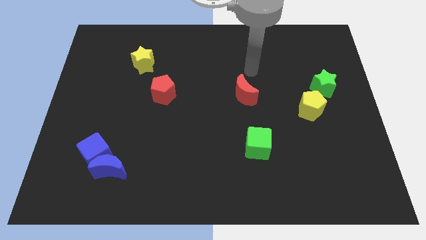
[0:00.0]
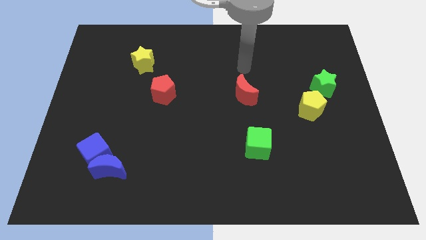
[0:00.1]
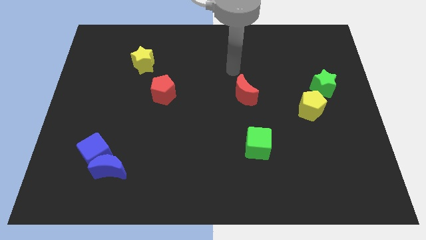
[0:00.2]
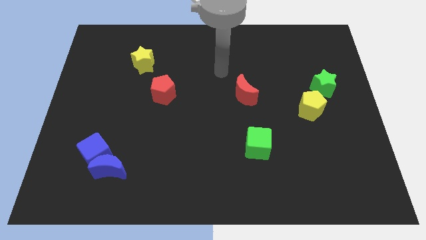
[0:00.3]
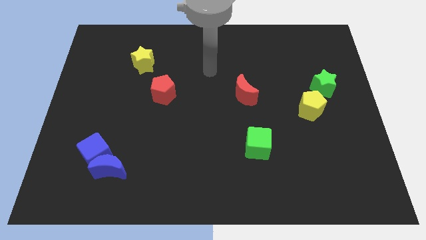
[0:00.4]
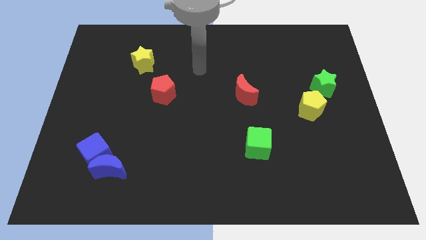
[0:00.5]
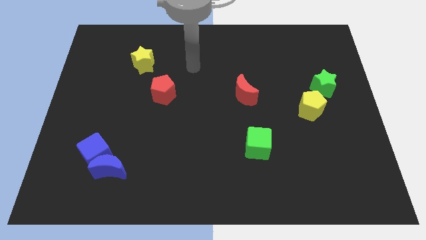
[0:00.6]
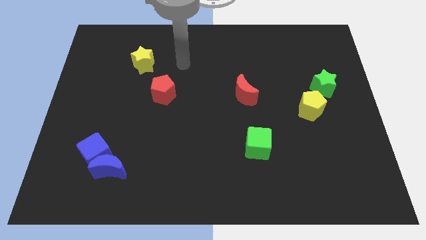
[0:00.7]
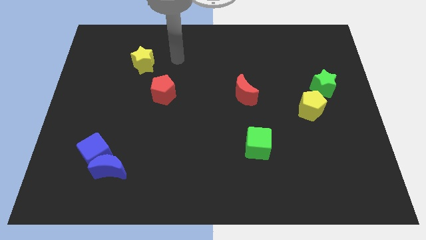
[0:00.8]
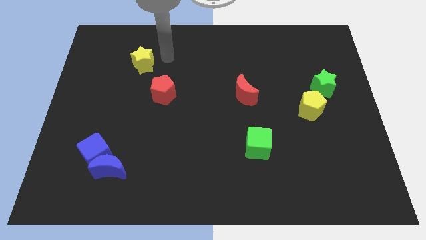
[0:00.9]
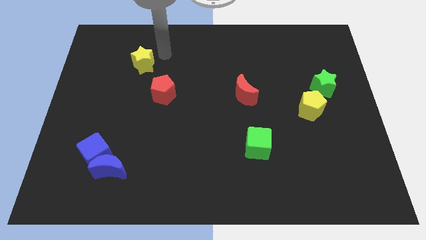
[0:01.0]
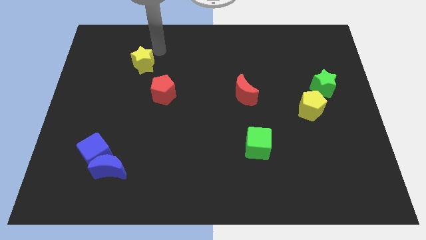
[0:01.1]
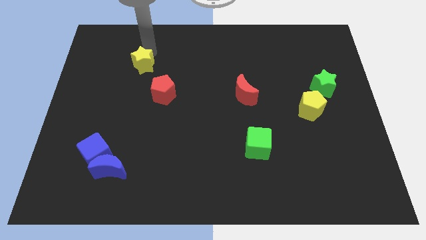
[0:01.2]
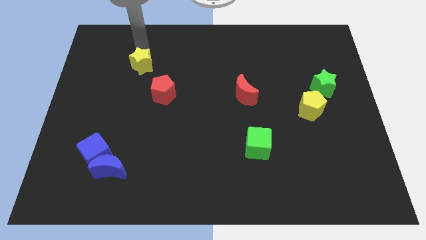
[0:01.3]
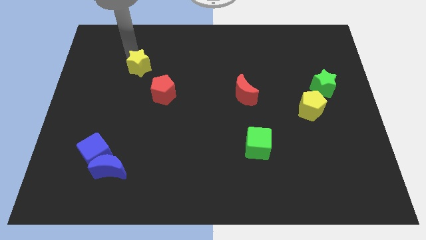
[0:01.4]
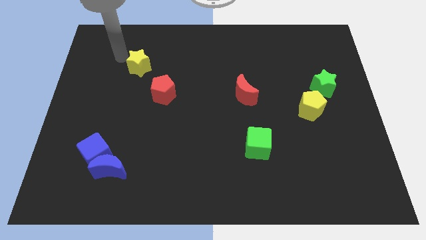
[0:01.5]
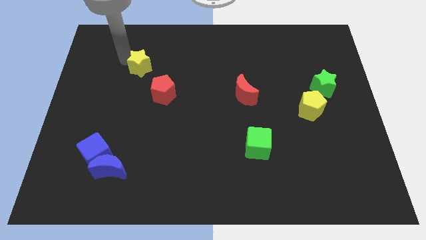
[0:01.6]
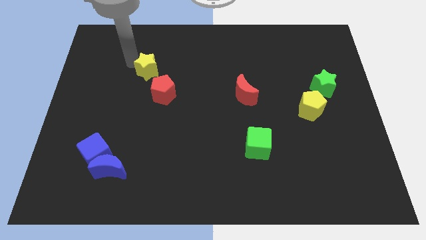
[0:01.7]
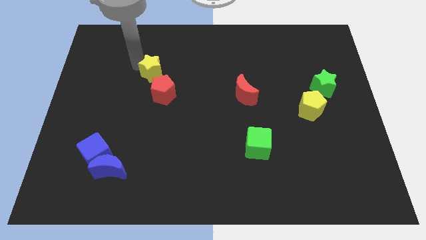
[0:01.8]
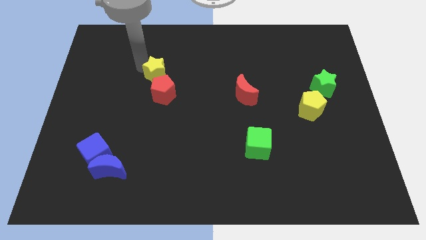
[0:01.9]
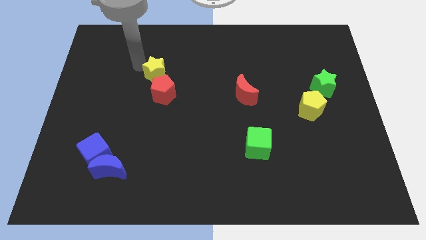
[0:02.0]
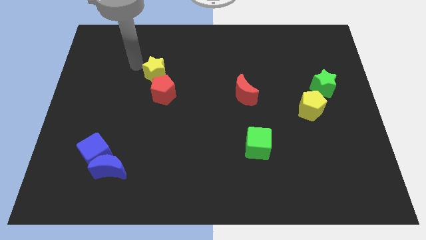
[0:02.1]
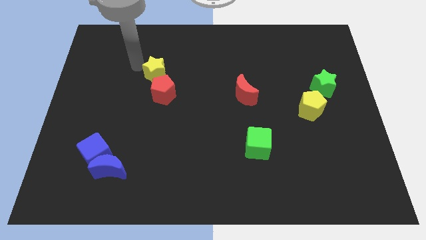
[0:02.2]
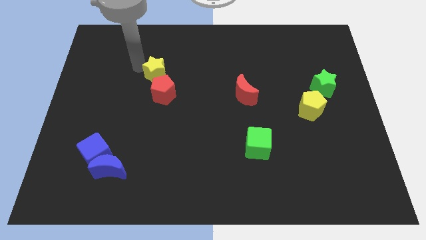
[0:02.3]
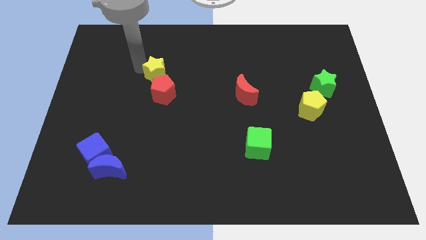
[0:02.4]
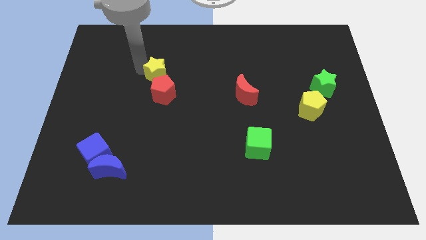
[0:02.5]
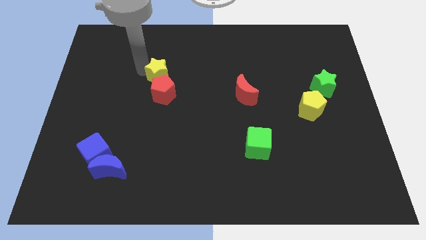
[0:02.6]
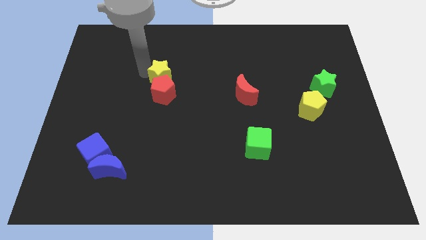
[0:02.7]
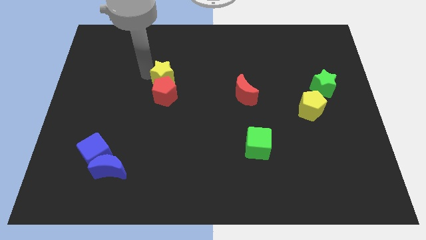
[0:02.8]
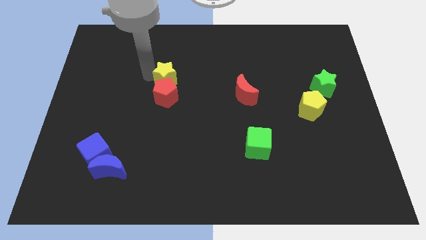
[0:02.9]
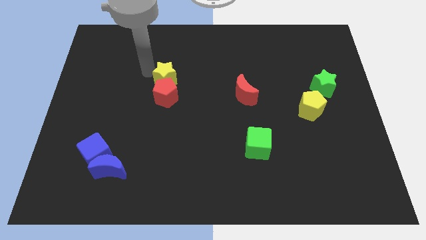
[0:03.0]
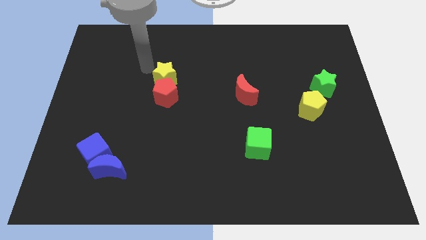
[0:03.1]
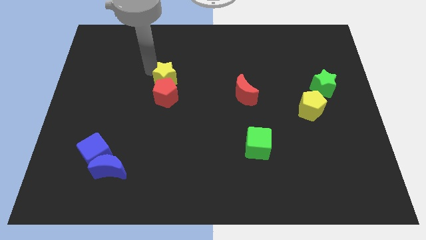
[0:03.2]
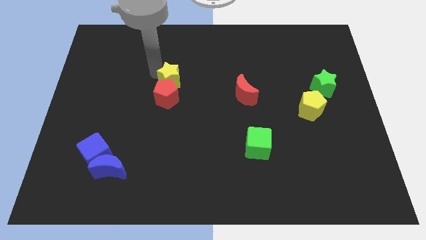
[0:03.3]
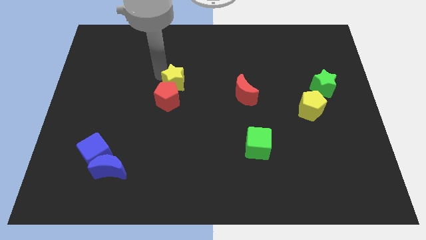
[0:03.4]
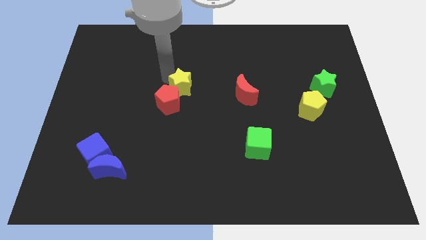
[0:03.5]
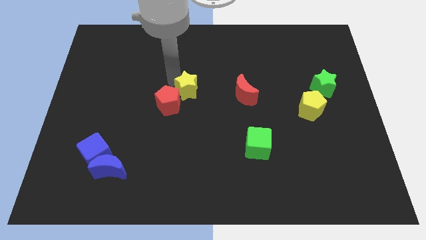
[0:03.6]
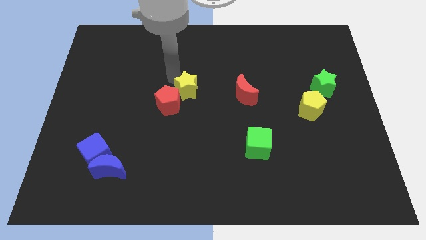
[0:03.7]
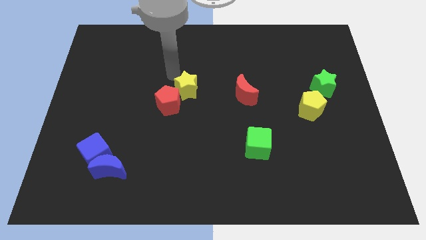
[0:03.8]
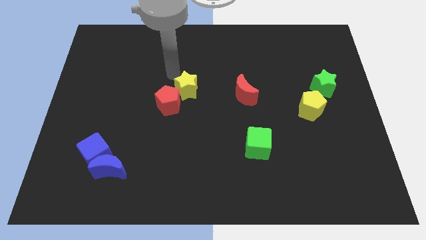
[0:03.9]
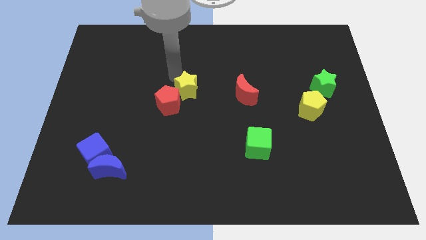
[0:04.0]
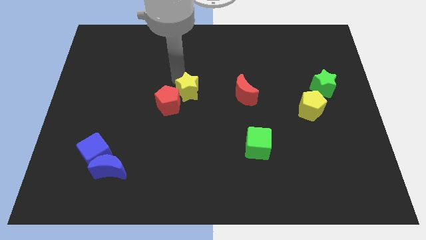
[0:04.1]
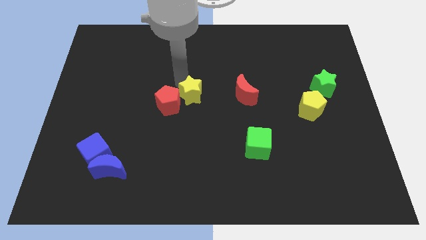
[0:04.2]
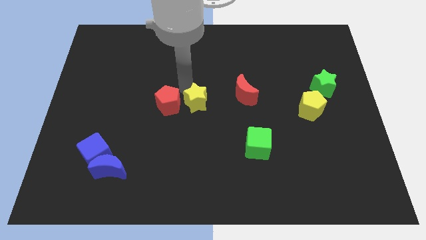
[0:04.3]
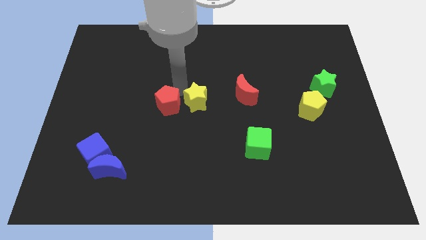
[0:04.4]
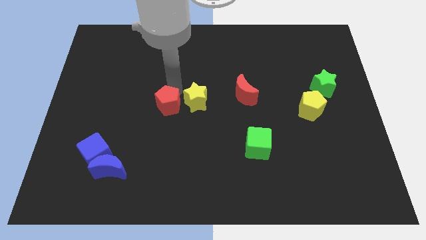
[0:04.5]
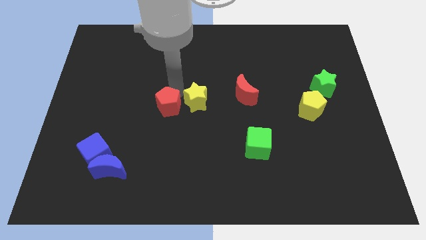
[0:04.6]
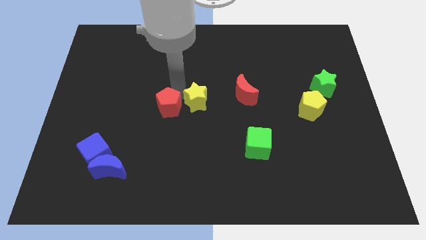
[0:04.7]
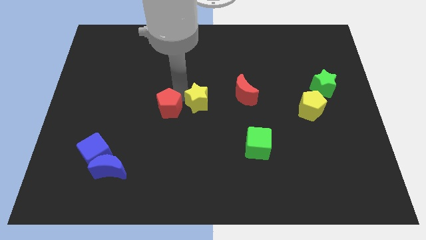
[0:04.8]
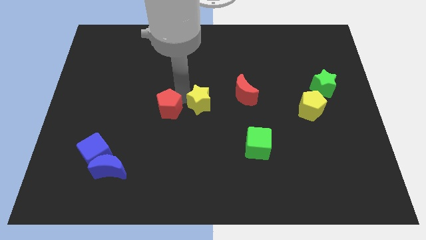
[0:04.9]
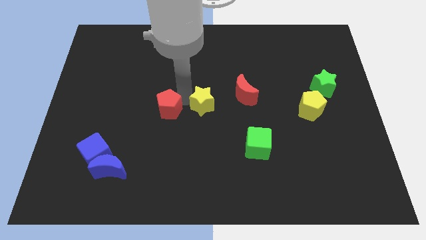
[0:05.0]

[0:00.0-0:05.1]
put the yellow star to the bottom left of the red moon

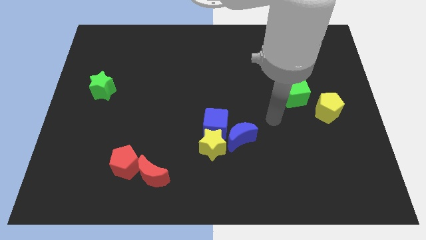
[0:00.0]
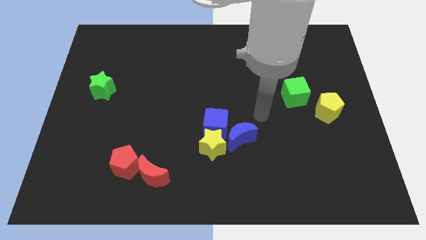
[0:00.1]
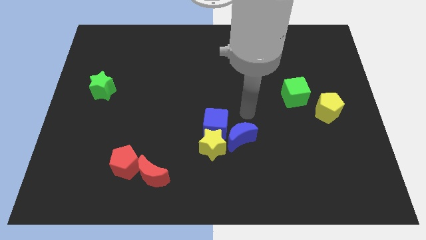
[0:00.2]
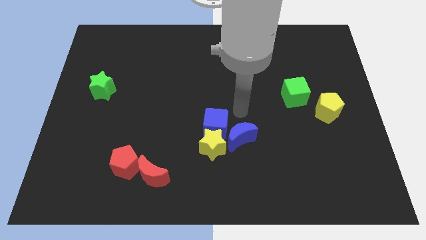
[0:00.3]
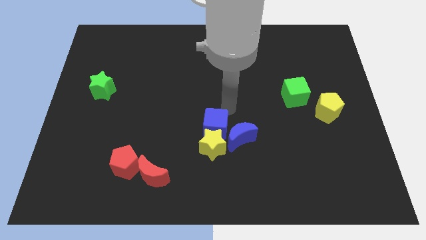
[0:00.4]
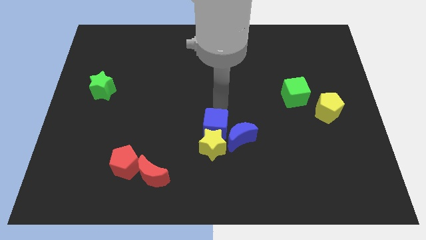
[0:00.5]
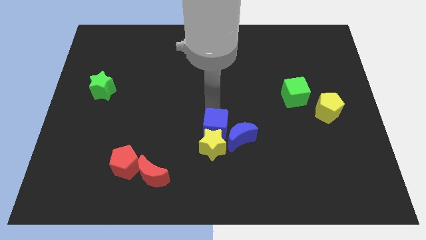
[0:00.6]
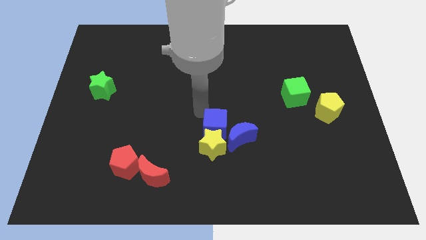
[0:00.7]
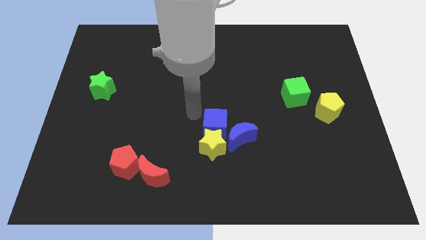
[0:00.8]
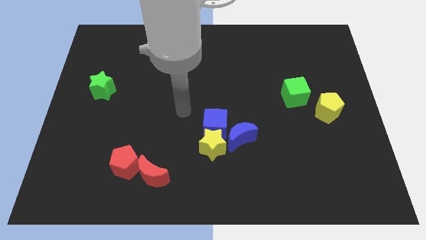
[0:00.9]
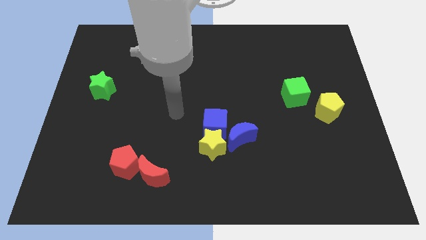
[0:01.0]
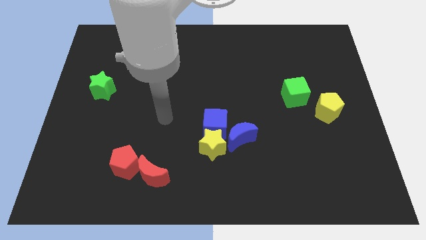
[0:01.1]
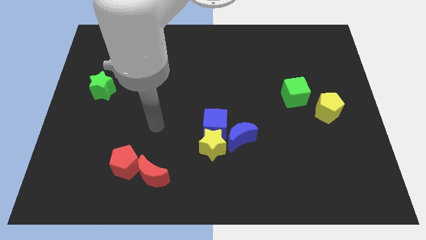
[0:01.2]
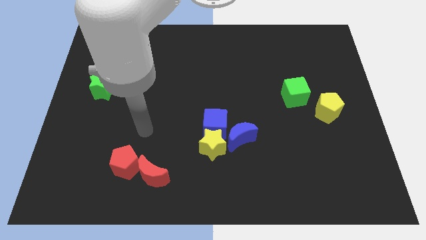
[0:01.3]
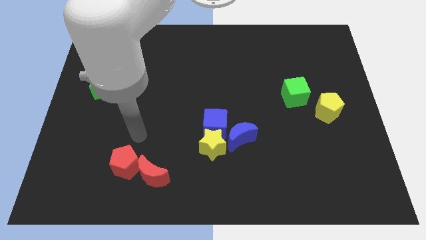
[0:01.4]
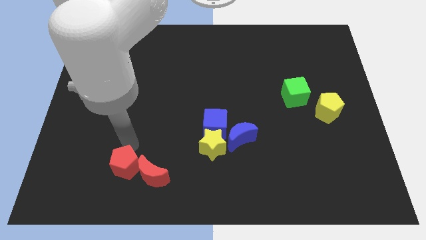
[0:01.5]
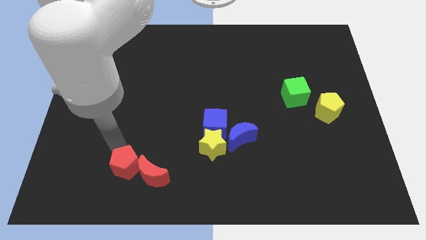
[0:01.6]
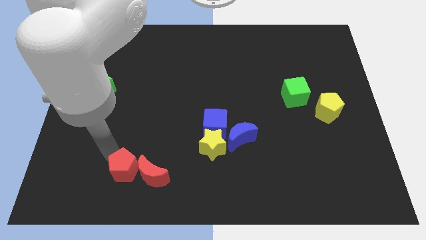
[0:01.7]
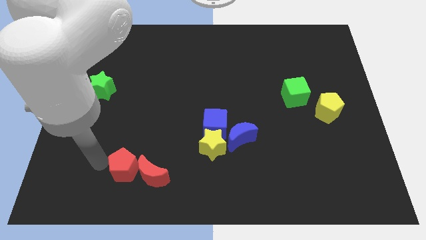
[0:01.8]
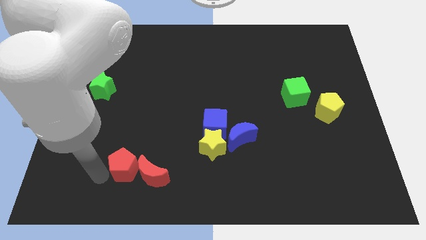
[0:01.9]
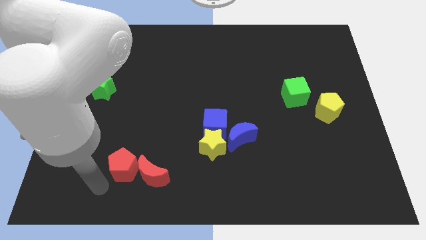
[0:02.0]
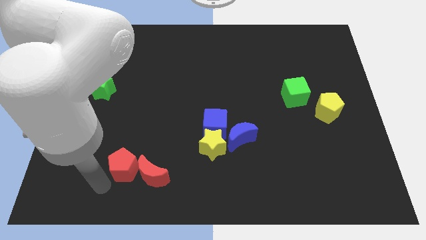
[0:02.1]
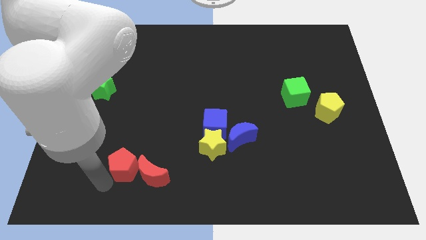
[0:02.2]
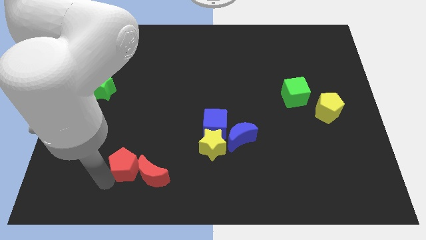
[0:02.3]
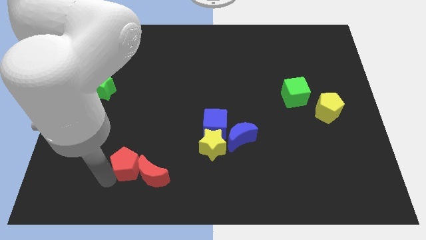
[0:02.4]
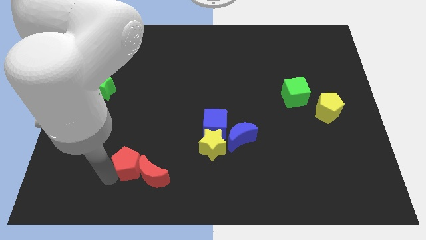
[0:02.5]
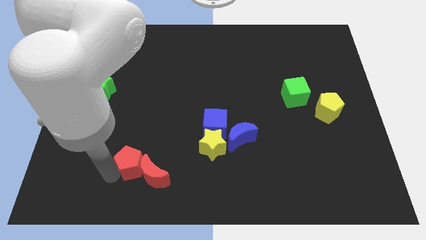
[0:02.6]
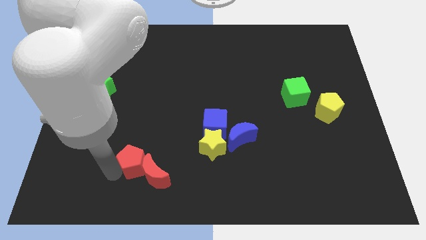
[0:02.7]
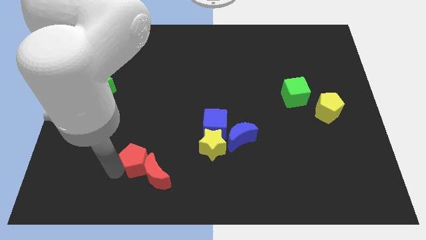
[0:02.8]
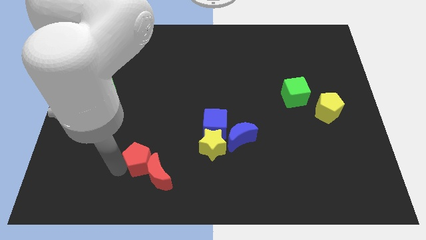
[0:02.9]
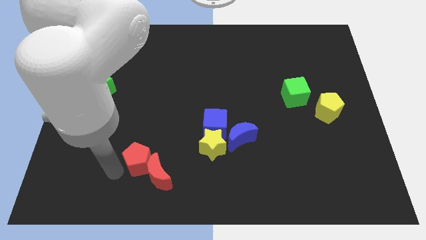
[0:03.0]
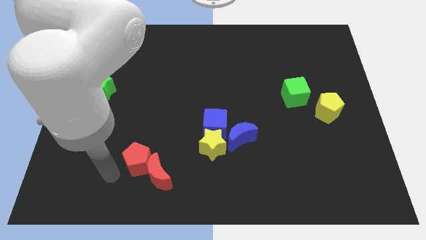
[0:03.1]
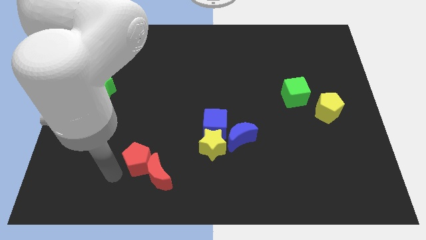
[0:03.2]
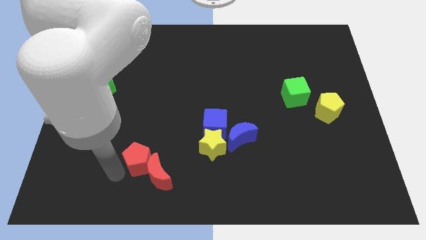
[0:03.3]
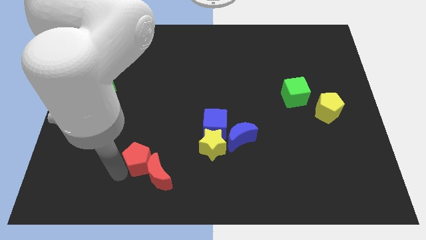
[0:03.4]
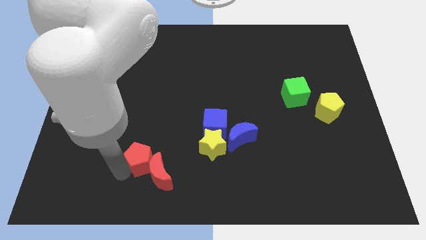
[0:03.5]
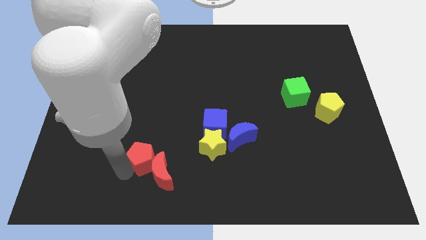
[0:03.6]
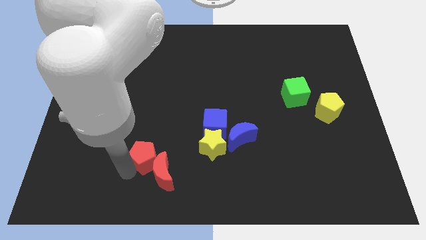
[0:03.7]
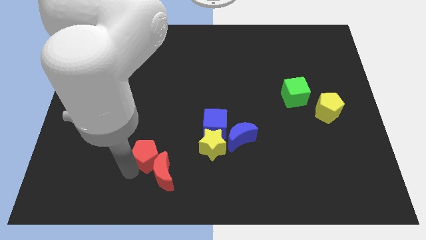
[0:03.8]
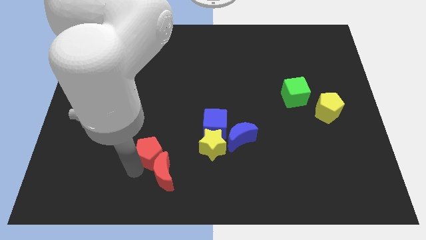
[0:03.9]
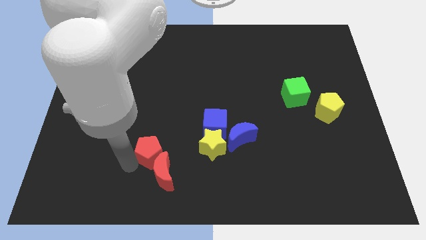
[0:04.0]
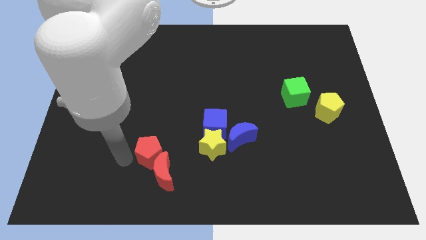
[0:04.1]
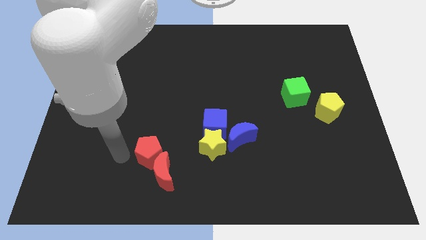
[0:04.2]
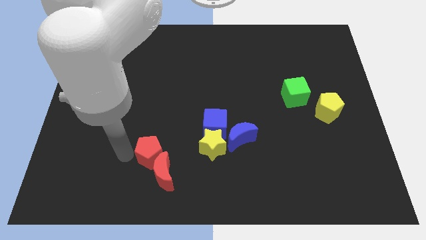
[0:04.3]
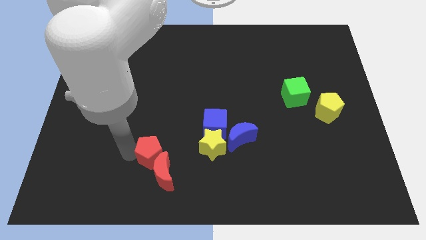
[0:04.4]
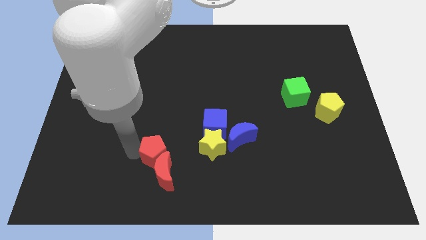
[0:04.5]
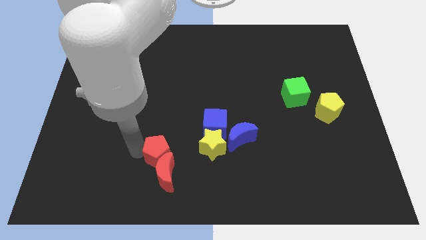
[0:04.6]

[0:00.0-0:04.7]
push the red pentagon diagonally up and to the right of the red moon
